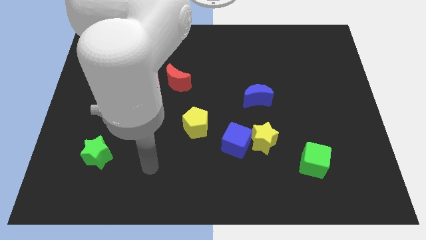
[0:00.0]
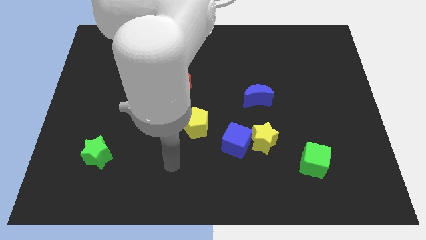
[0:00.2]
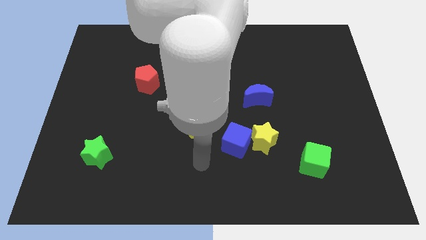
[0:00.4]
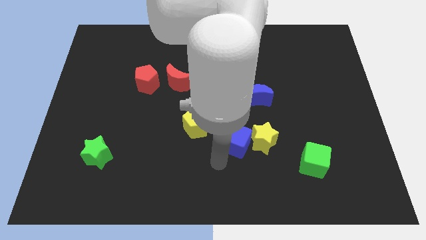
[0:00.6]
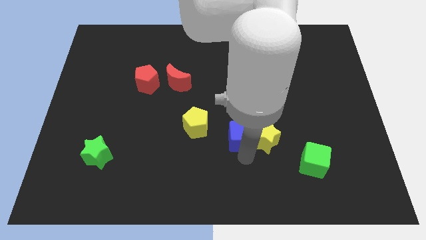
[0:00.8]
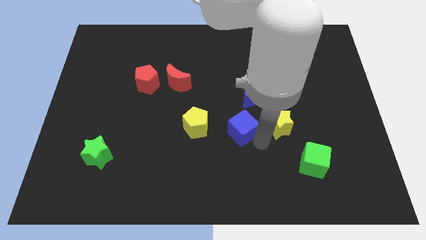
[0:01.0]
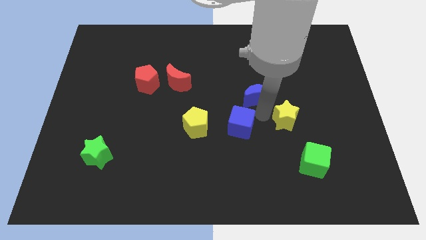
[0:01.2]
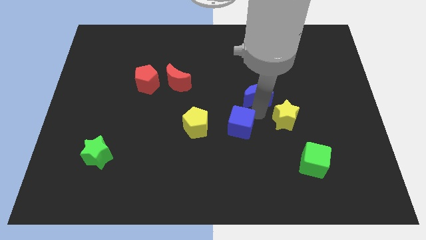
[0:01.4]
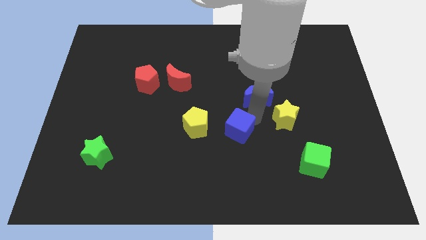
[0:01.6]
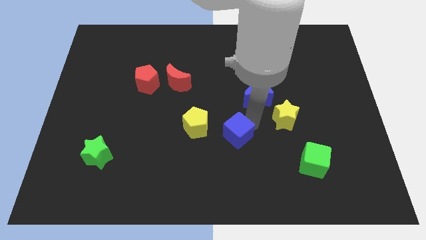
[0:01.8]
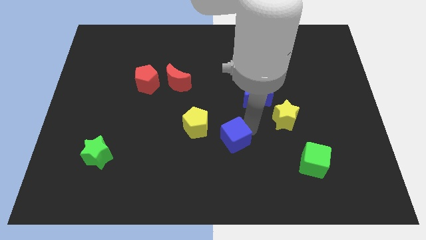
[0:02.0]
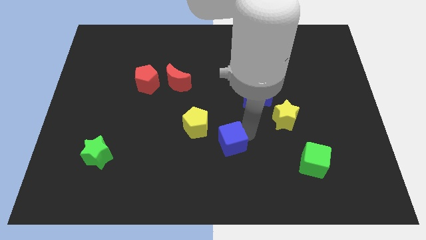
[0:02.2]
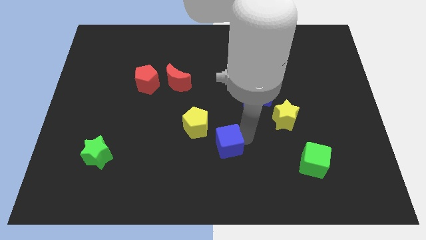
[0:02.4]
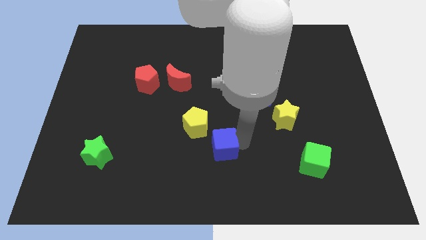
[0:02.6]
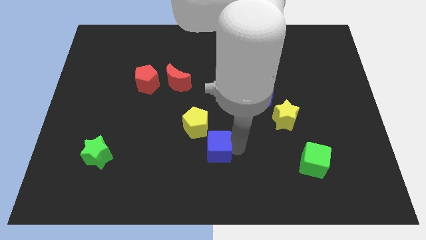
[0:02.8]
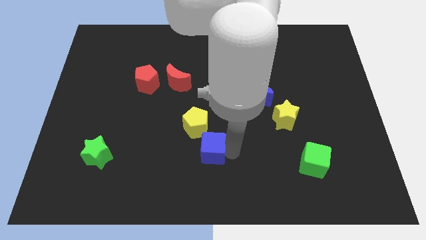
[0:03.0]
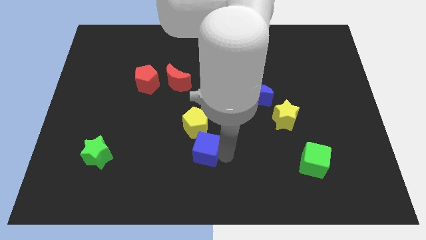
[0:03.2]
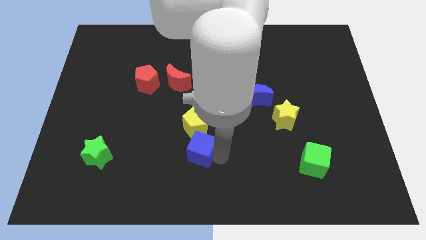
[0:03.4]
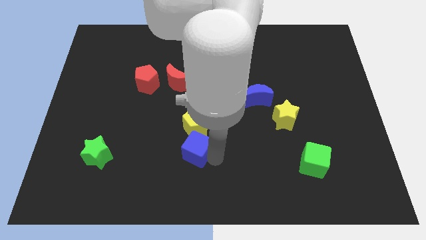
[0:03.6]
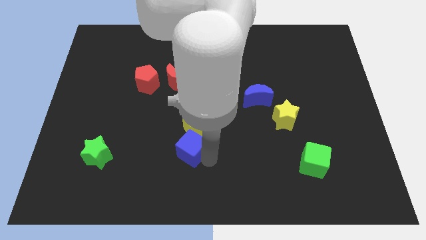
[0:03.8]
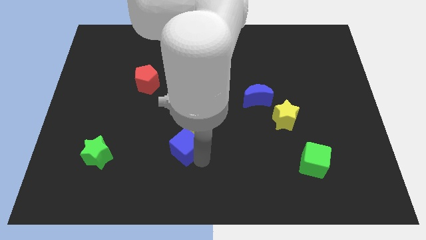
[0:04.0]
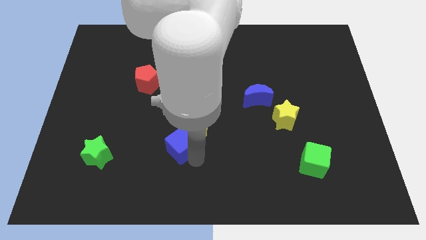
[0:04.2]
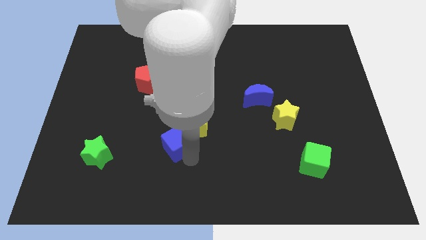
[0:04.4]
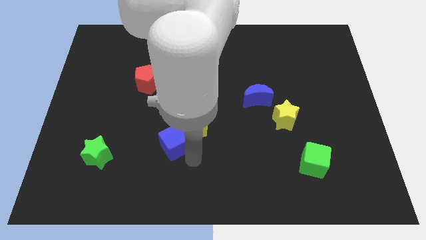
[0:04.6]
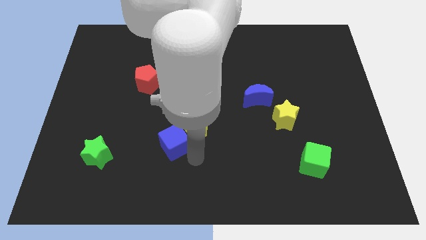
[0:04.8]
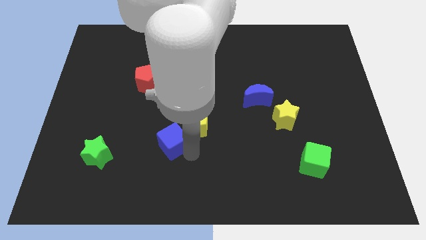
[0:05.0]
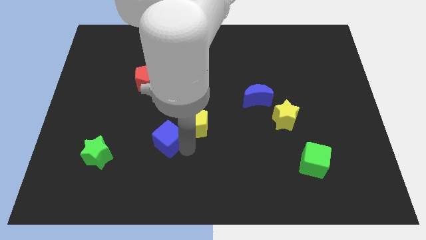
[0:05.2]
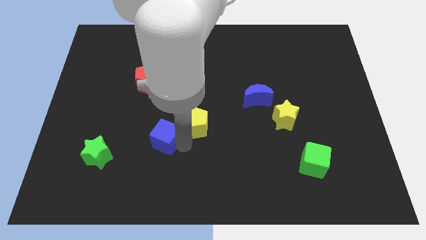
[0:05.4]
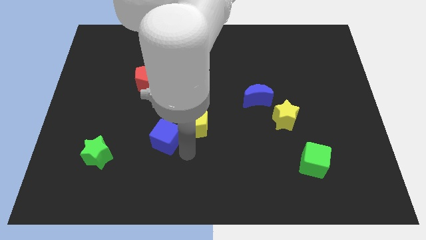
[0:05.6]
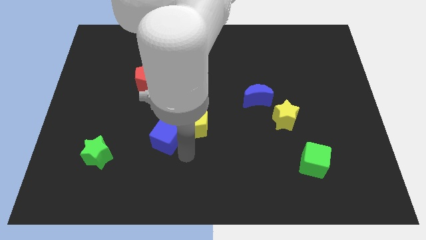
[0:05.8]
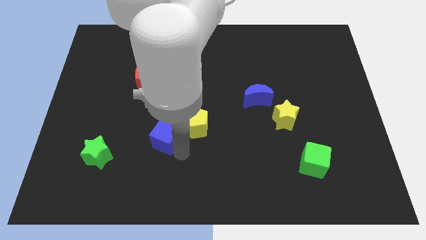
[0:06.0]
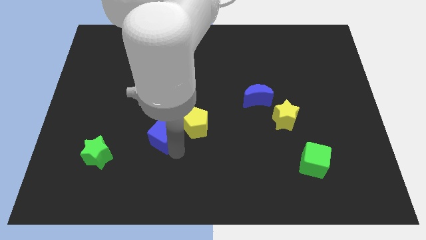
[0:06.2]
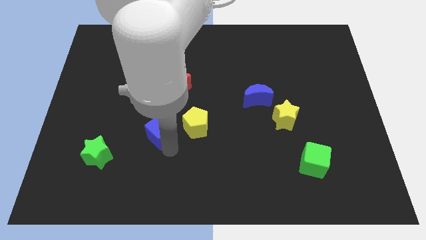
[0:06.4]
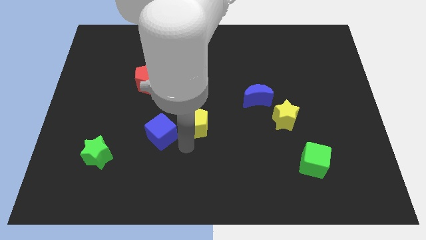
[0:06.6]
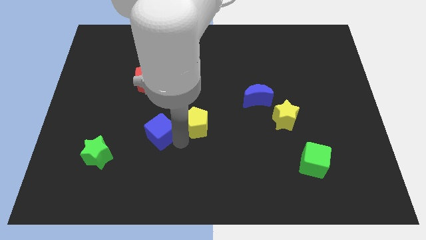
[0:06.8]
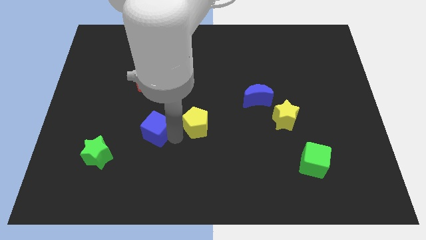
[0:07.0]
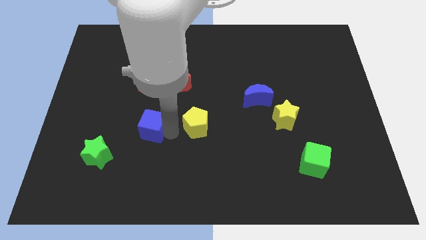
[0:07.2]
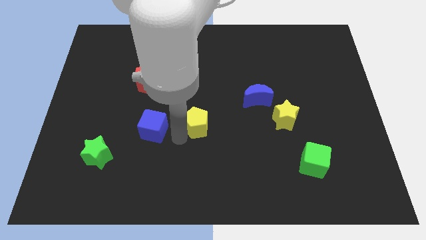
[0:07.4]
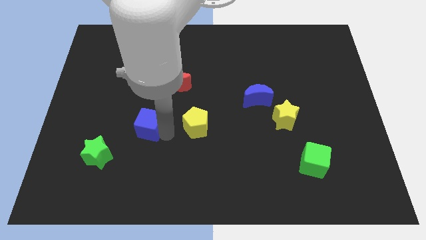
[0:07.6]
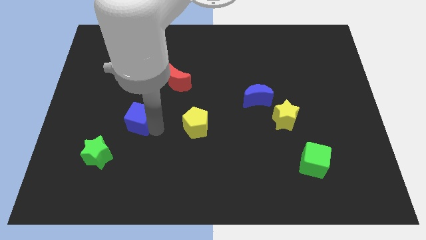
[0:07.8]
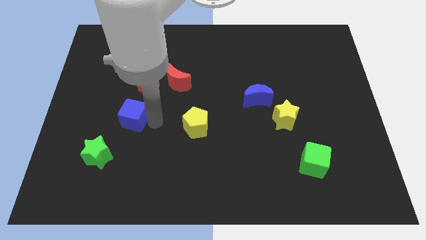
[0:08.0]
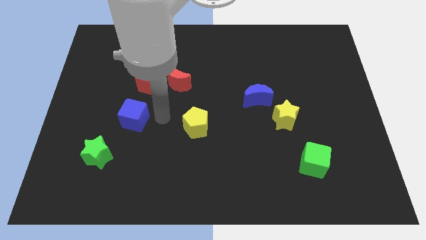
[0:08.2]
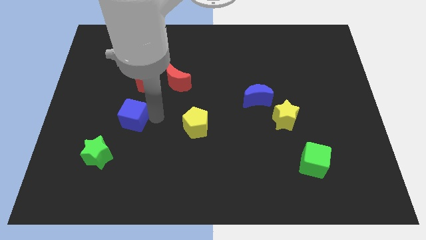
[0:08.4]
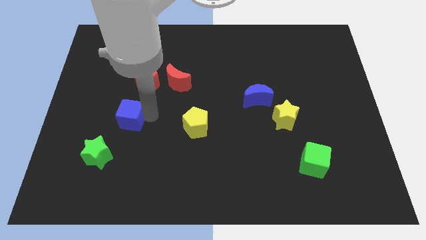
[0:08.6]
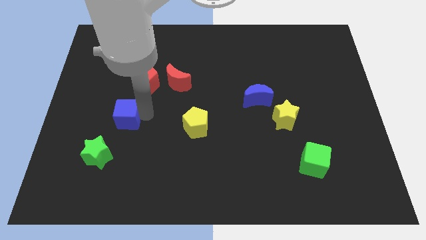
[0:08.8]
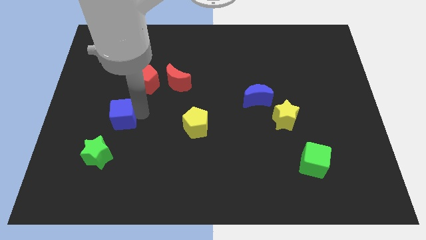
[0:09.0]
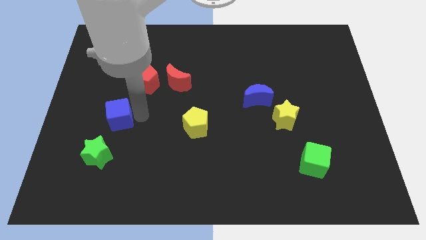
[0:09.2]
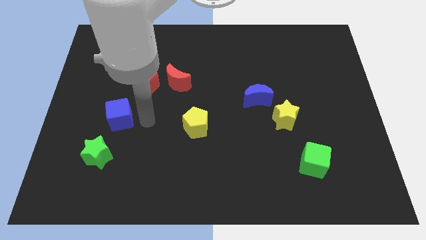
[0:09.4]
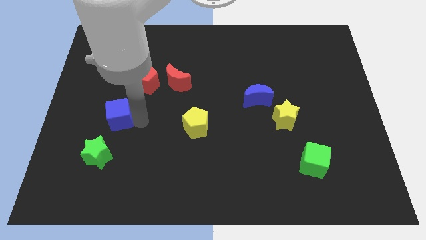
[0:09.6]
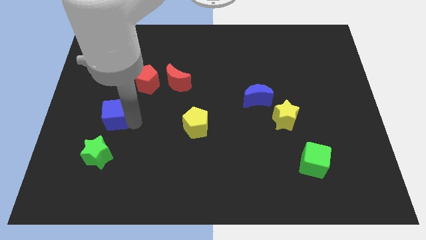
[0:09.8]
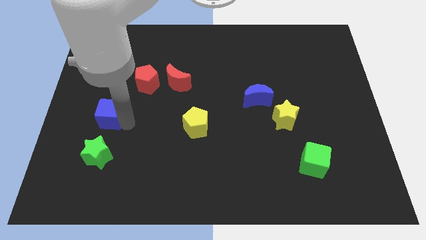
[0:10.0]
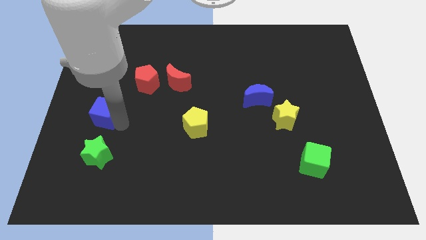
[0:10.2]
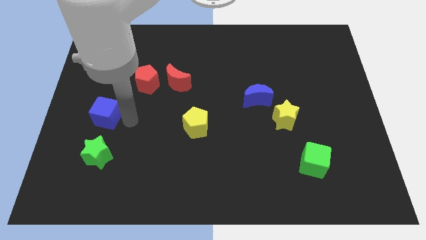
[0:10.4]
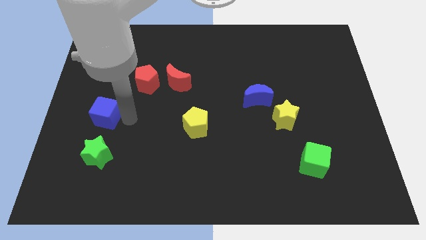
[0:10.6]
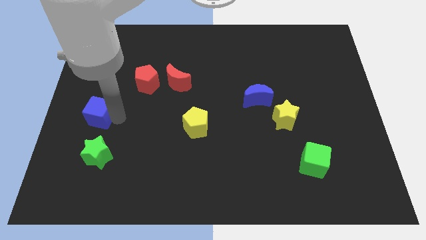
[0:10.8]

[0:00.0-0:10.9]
put the blue cube to the left side

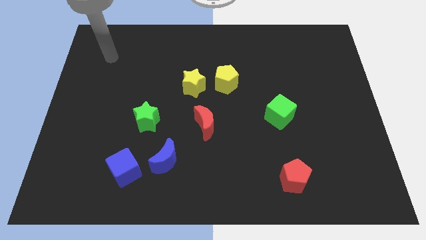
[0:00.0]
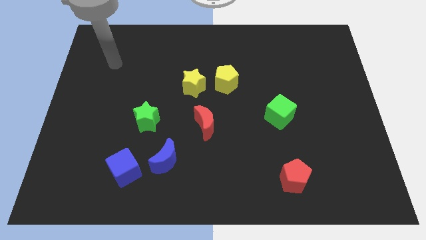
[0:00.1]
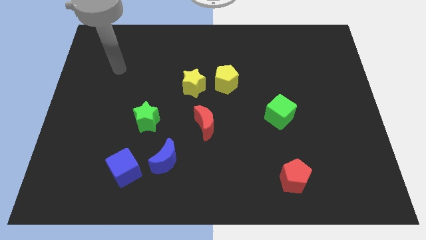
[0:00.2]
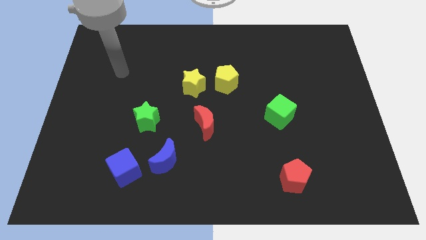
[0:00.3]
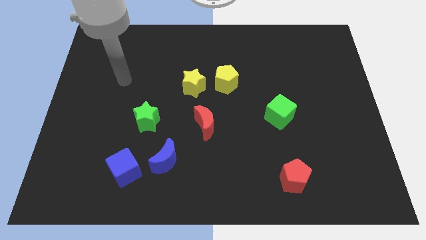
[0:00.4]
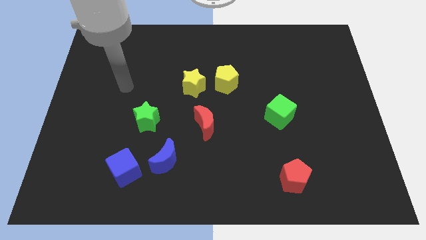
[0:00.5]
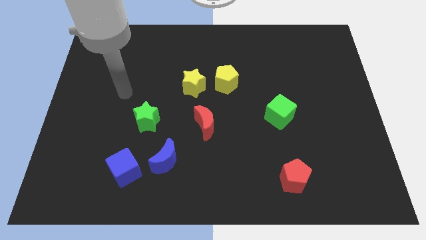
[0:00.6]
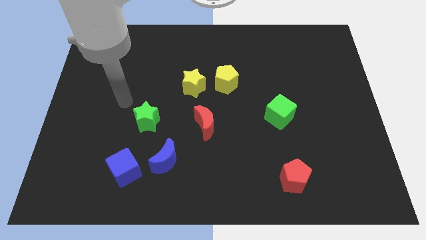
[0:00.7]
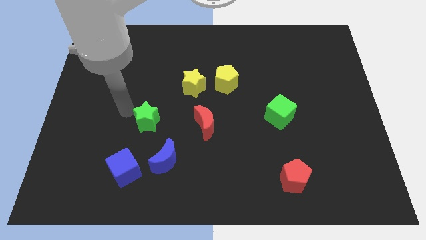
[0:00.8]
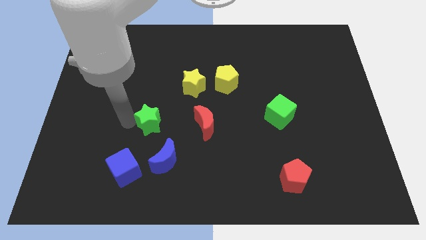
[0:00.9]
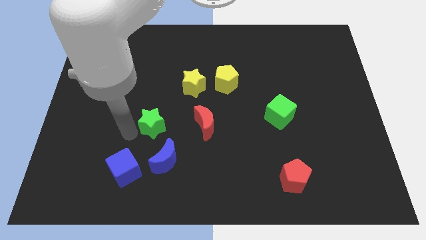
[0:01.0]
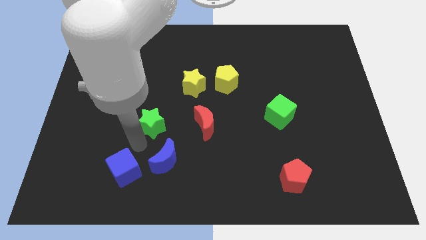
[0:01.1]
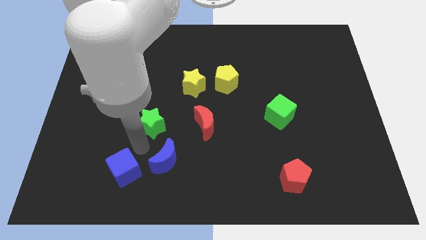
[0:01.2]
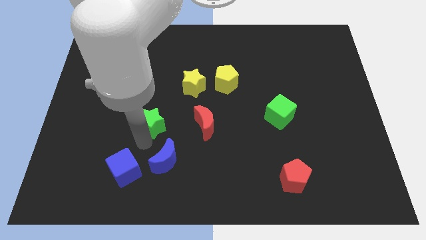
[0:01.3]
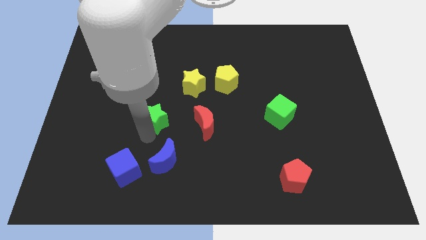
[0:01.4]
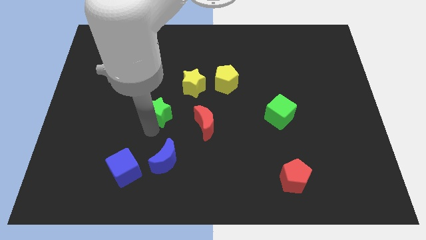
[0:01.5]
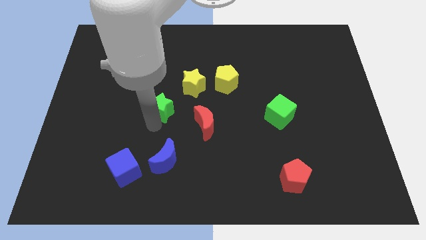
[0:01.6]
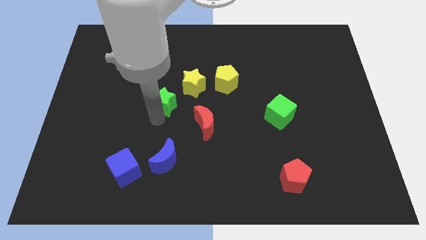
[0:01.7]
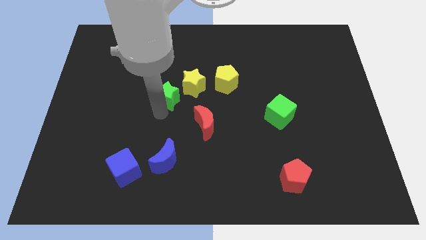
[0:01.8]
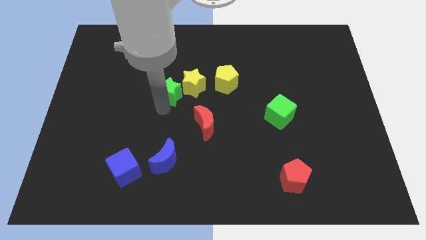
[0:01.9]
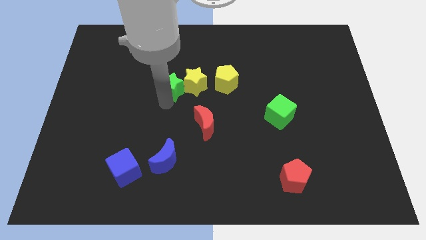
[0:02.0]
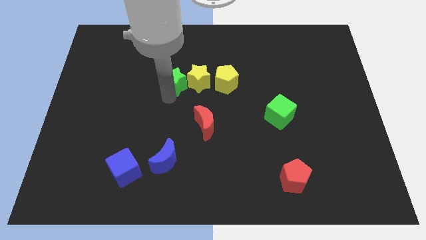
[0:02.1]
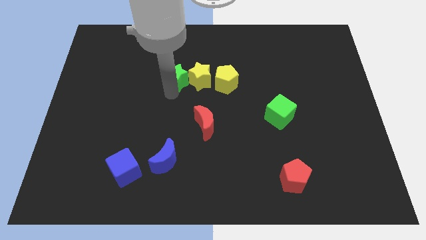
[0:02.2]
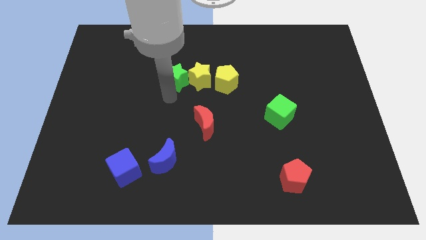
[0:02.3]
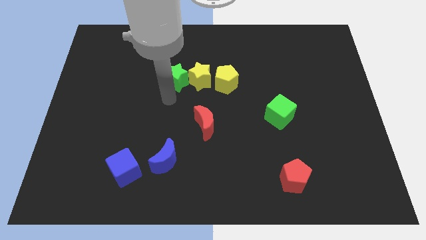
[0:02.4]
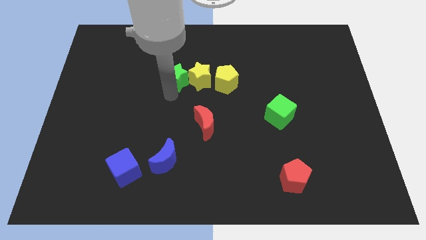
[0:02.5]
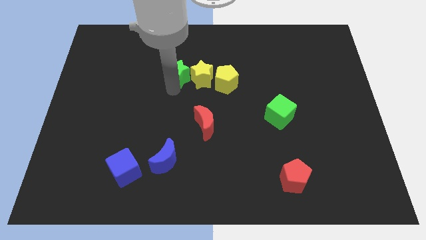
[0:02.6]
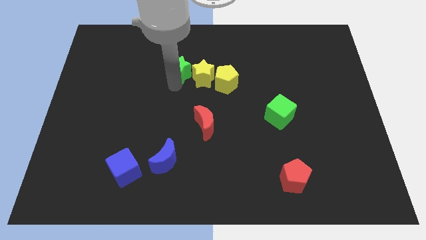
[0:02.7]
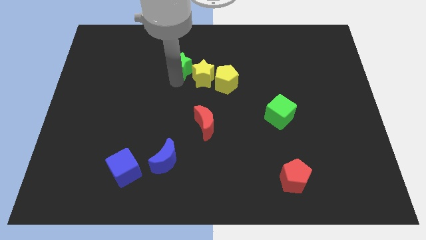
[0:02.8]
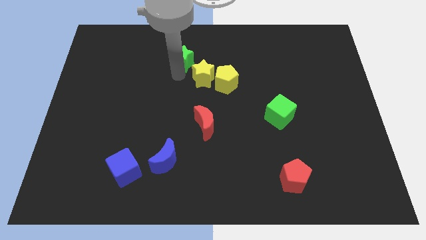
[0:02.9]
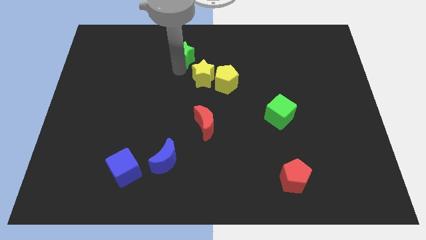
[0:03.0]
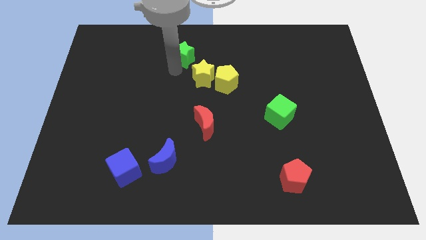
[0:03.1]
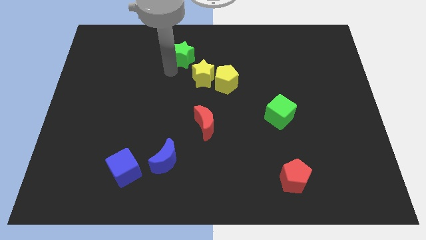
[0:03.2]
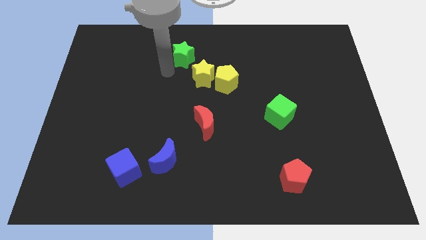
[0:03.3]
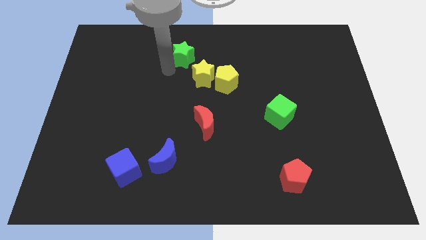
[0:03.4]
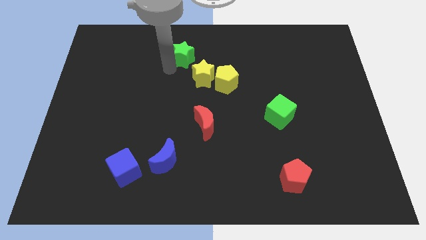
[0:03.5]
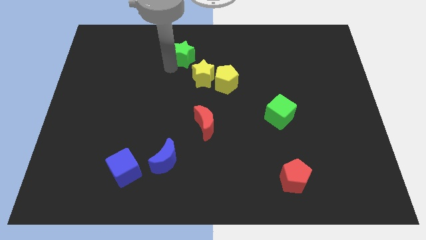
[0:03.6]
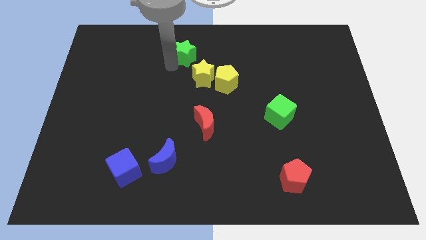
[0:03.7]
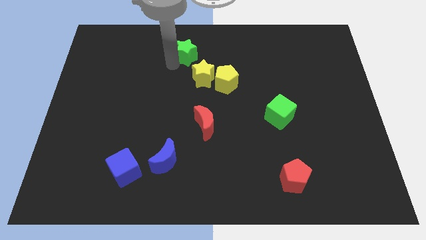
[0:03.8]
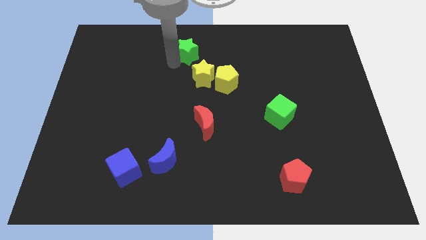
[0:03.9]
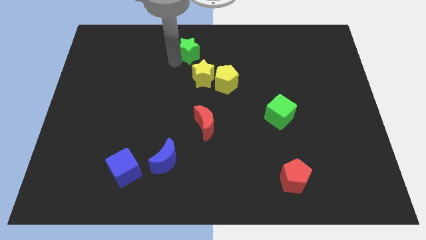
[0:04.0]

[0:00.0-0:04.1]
push the green star to the towards your base
